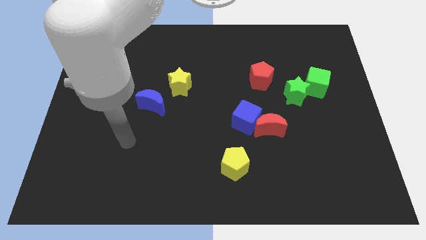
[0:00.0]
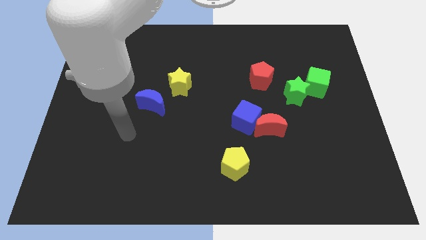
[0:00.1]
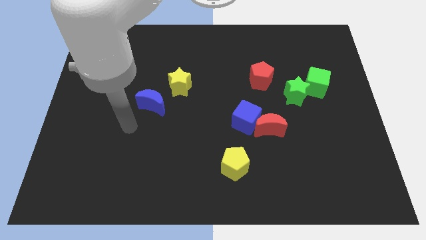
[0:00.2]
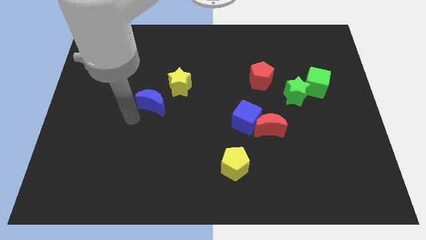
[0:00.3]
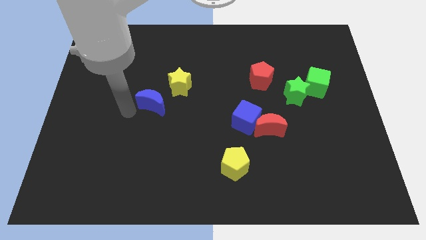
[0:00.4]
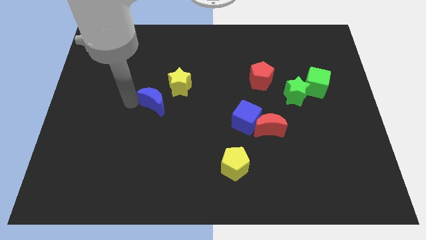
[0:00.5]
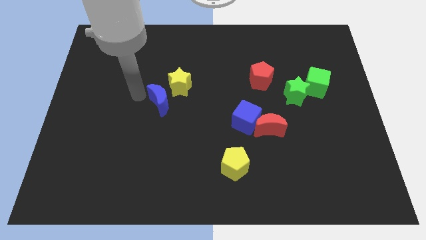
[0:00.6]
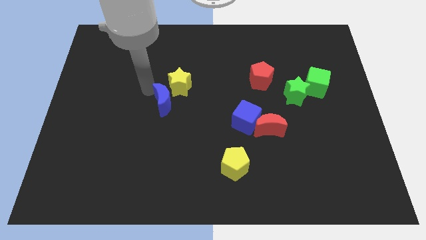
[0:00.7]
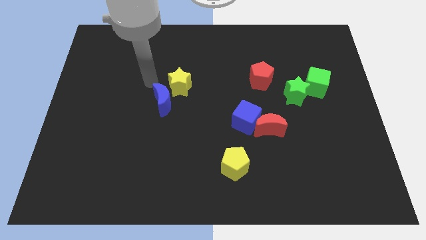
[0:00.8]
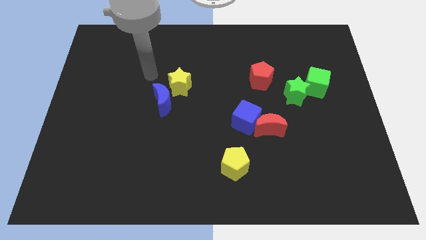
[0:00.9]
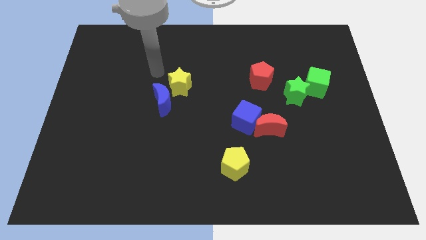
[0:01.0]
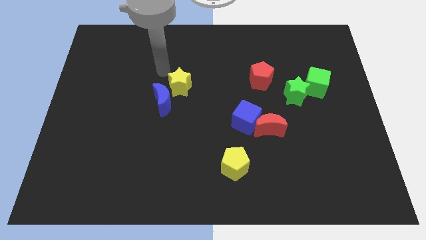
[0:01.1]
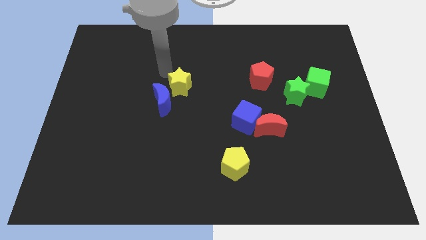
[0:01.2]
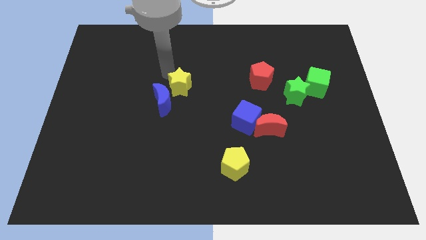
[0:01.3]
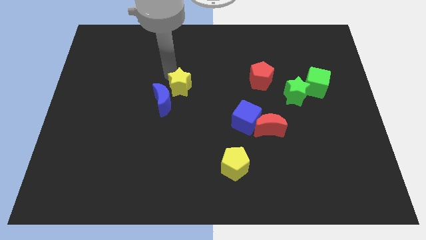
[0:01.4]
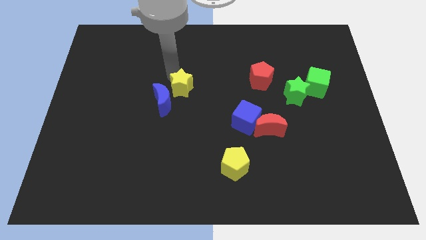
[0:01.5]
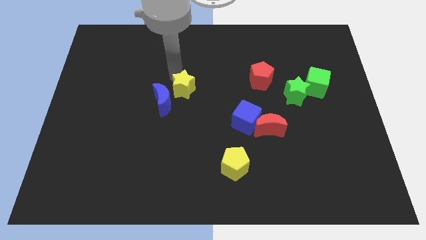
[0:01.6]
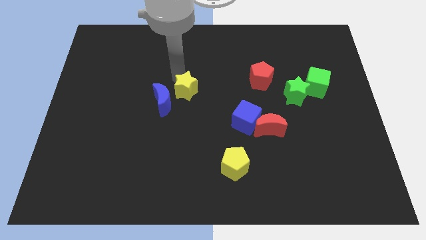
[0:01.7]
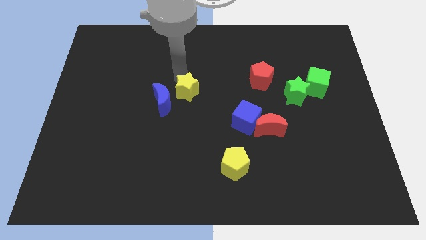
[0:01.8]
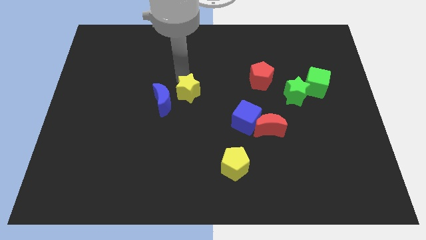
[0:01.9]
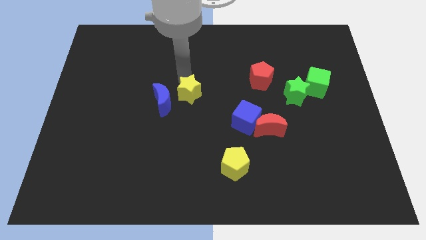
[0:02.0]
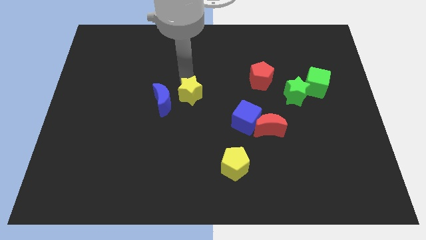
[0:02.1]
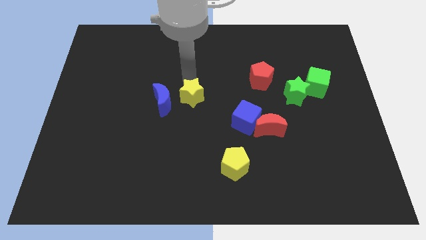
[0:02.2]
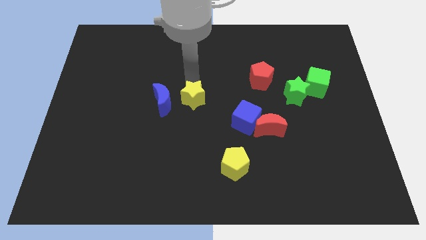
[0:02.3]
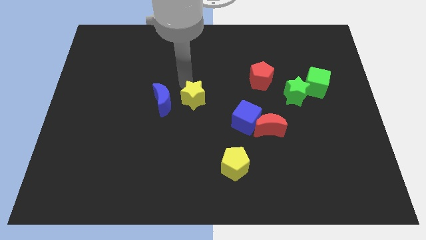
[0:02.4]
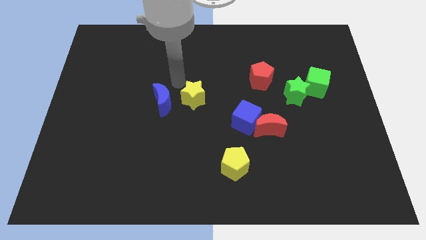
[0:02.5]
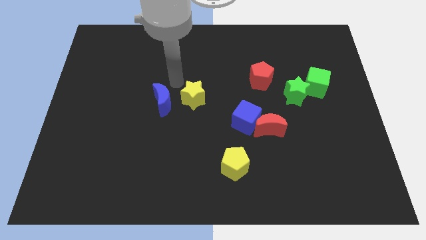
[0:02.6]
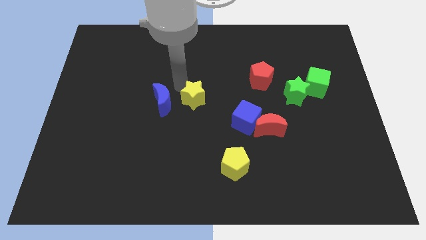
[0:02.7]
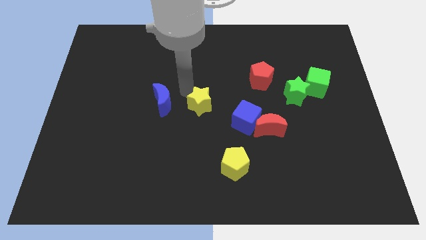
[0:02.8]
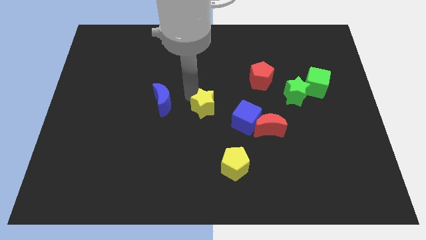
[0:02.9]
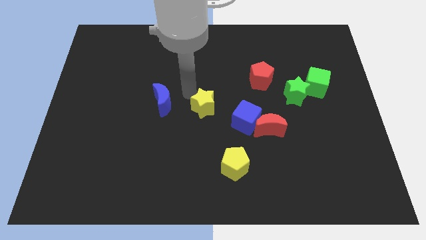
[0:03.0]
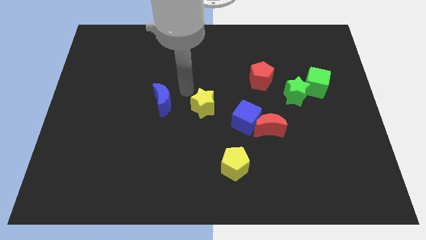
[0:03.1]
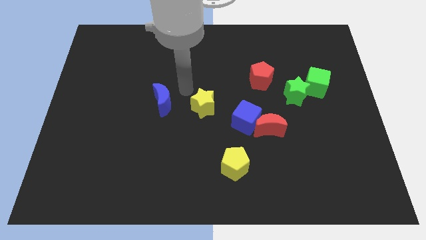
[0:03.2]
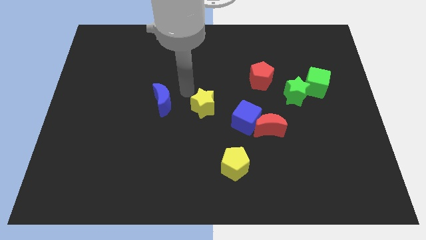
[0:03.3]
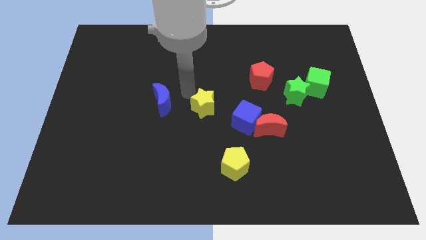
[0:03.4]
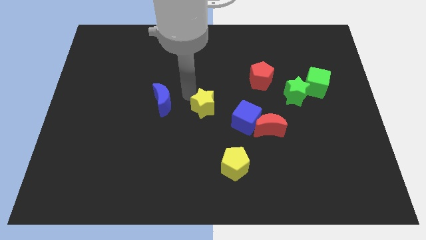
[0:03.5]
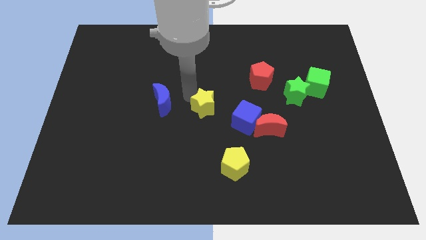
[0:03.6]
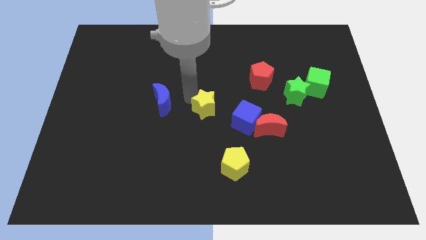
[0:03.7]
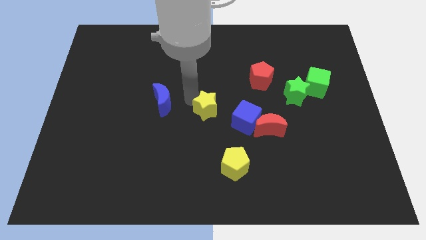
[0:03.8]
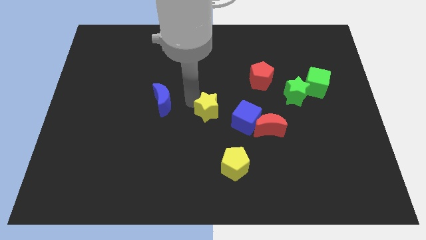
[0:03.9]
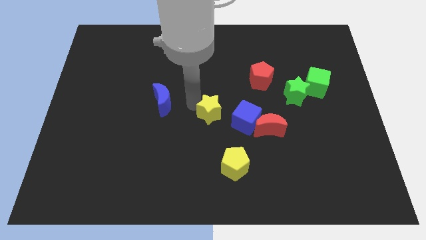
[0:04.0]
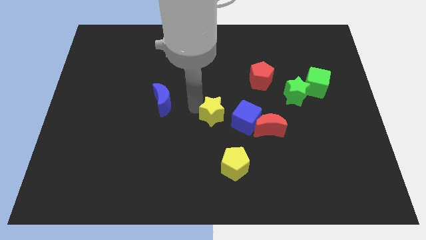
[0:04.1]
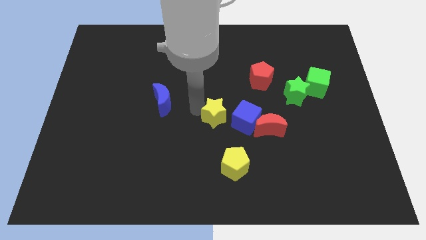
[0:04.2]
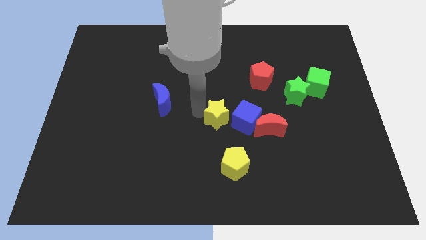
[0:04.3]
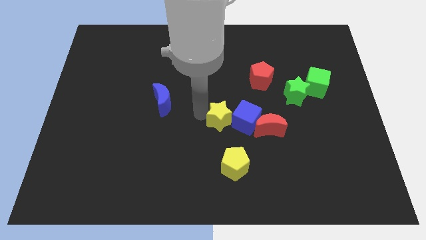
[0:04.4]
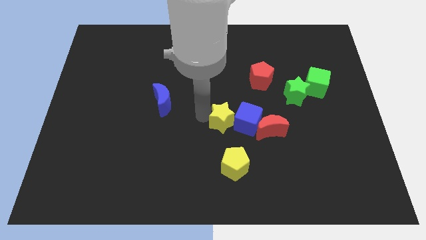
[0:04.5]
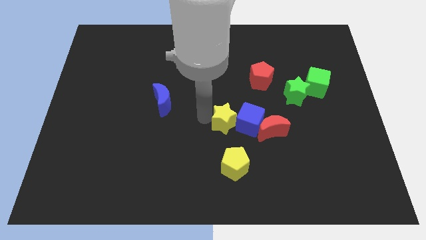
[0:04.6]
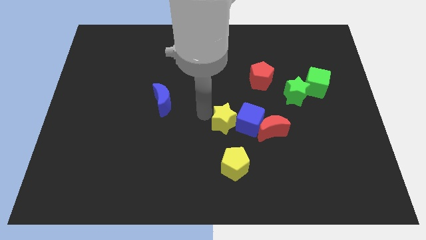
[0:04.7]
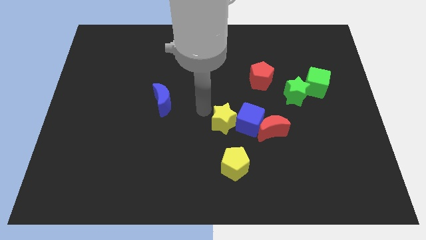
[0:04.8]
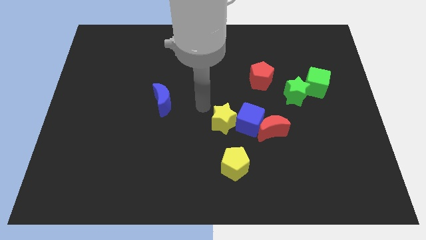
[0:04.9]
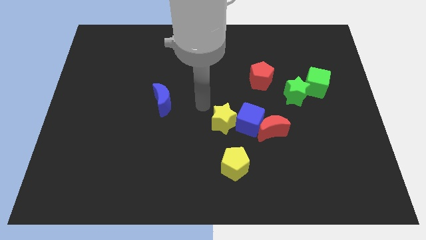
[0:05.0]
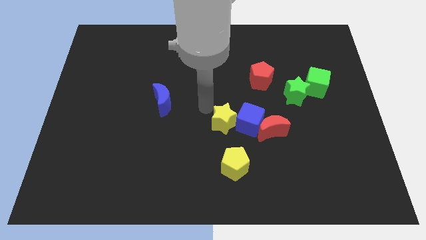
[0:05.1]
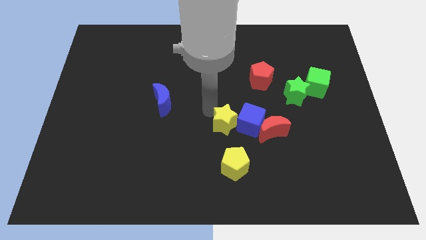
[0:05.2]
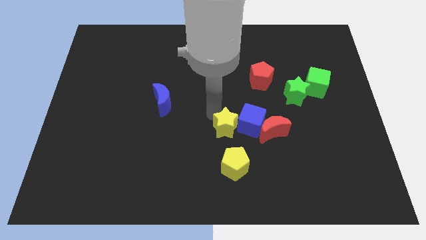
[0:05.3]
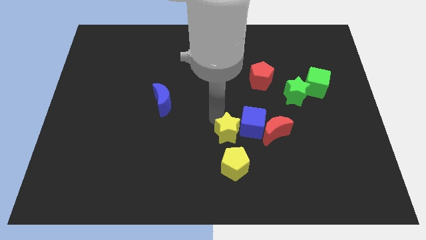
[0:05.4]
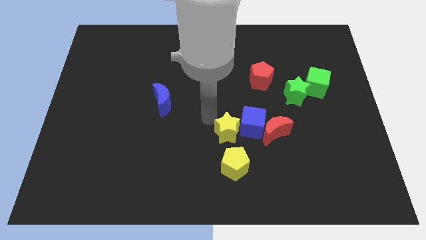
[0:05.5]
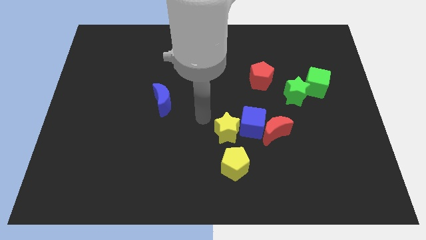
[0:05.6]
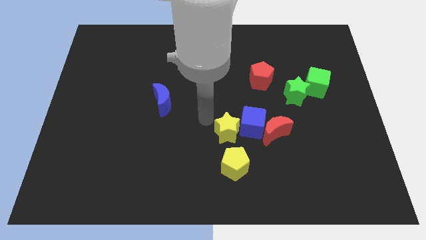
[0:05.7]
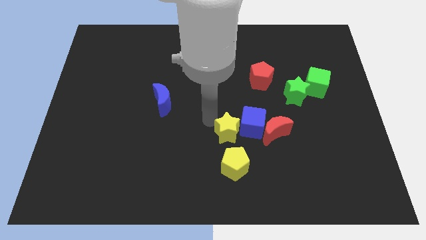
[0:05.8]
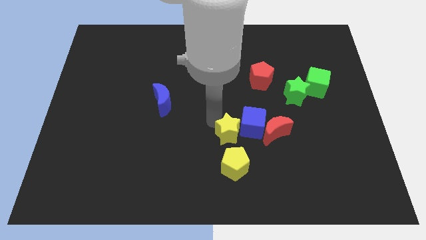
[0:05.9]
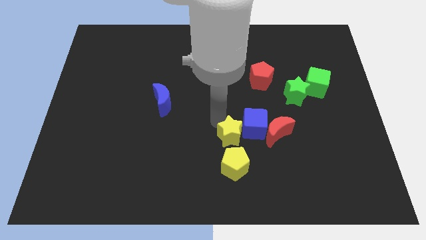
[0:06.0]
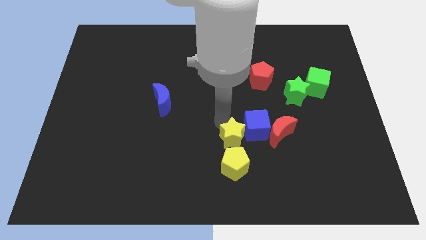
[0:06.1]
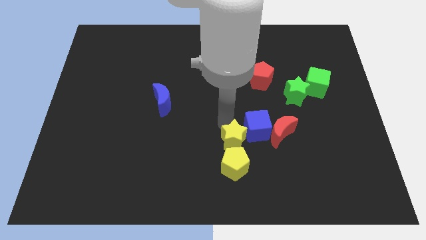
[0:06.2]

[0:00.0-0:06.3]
slide the yellow star down and to the right

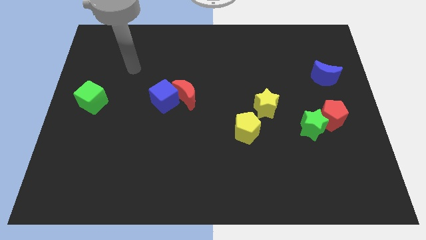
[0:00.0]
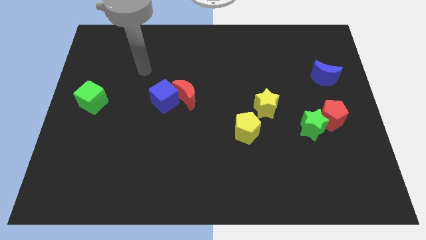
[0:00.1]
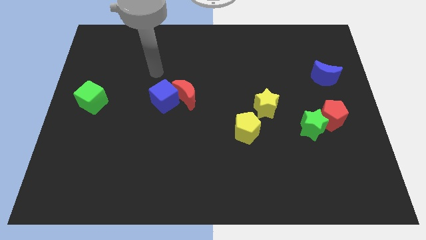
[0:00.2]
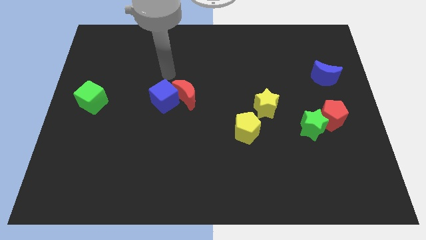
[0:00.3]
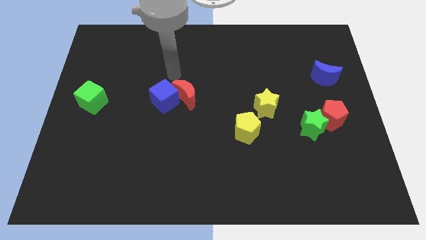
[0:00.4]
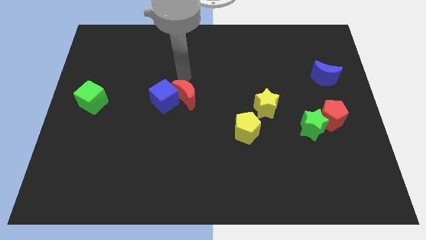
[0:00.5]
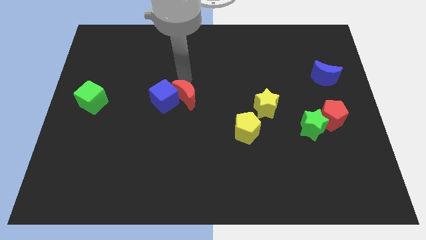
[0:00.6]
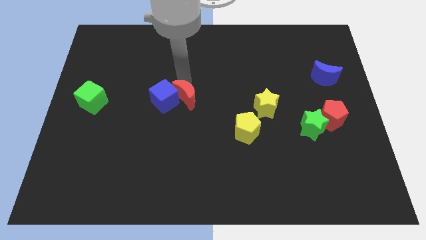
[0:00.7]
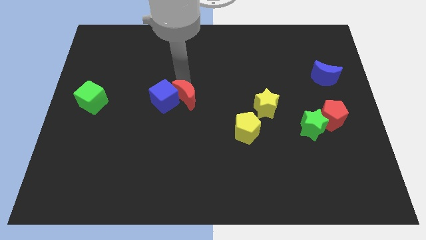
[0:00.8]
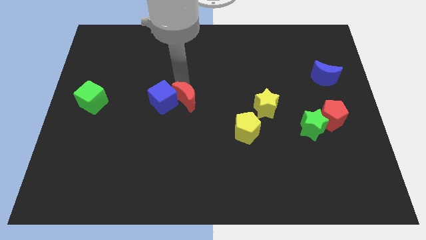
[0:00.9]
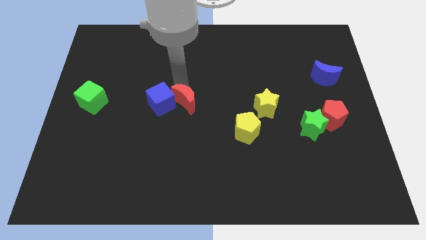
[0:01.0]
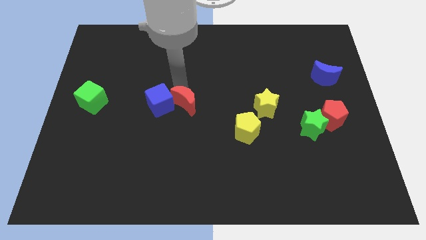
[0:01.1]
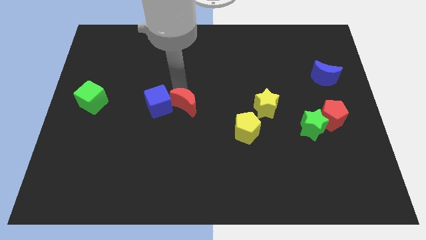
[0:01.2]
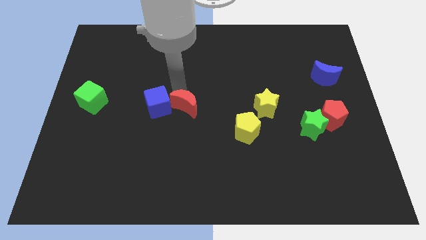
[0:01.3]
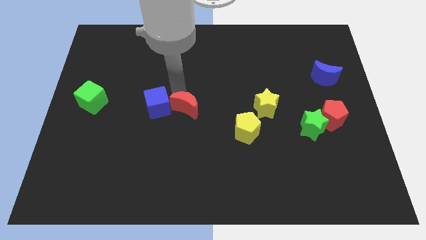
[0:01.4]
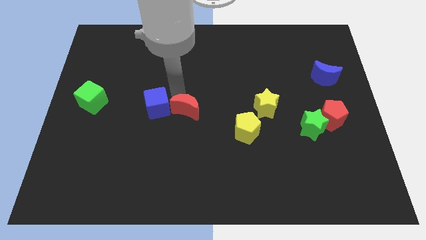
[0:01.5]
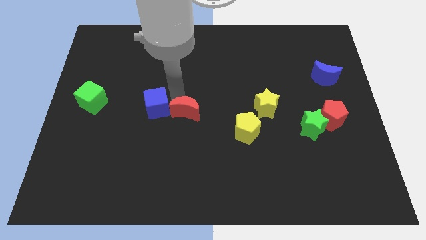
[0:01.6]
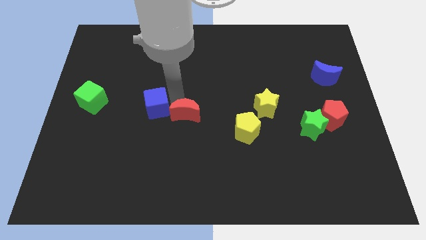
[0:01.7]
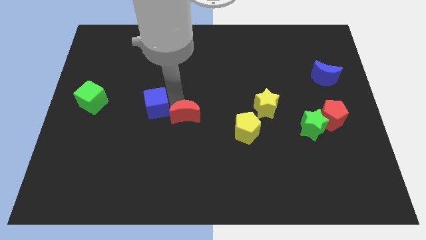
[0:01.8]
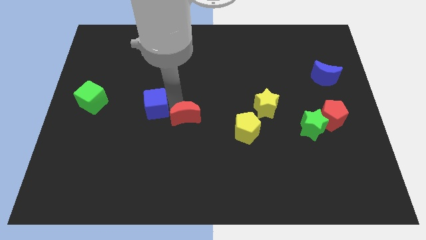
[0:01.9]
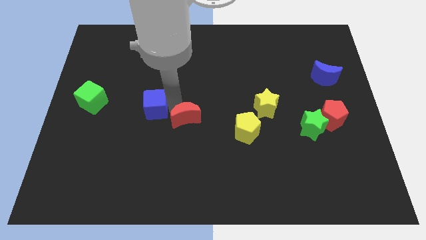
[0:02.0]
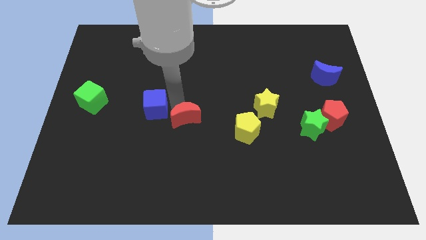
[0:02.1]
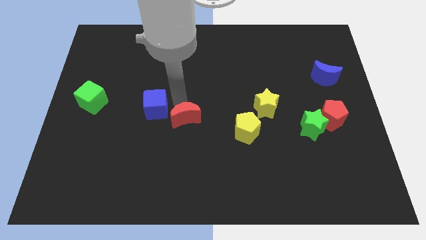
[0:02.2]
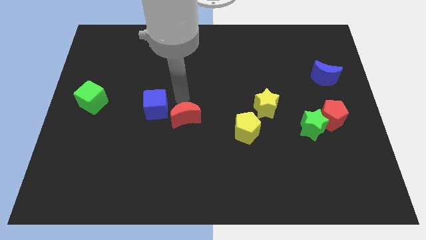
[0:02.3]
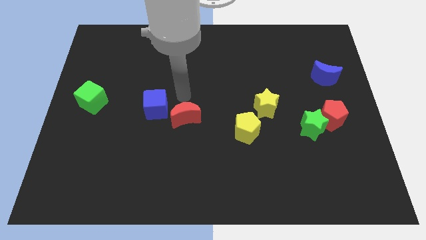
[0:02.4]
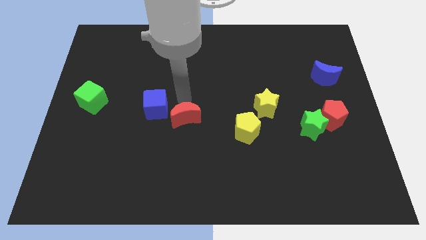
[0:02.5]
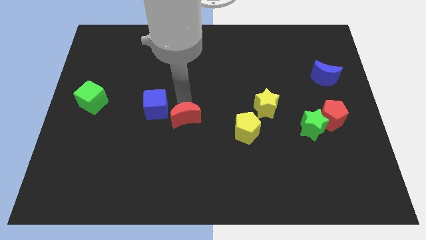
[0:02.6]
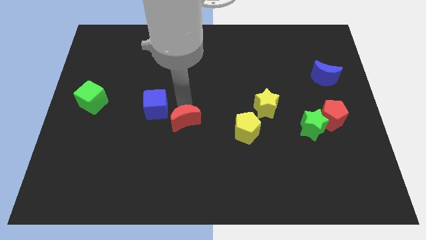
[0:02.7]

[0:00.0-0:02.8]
slide the red moon down a little bit
